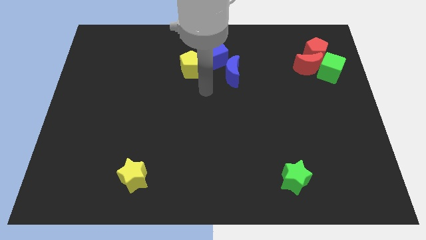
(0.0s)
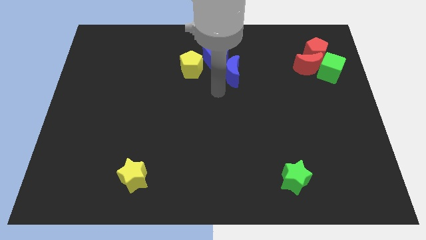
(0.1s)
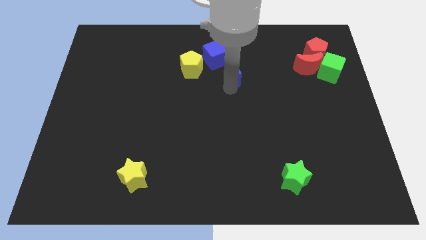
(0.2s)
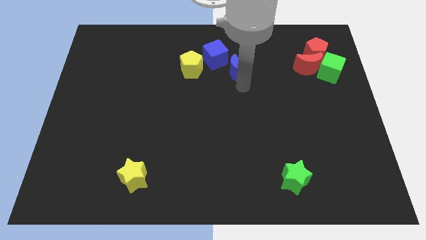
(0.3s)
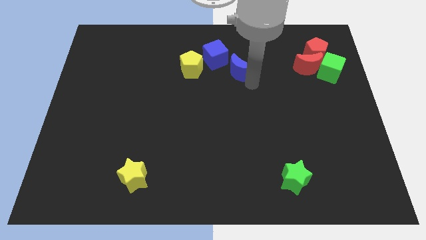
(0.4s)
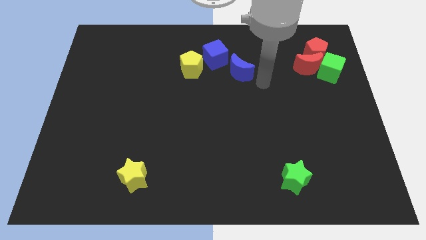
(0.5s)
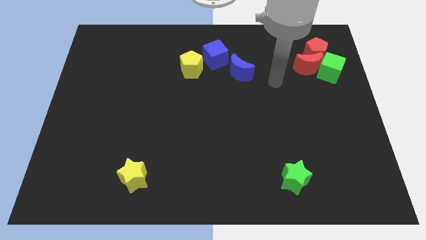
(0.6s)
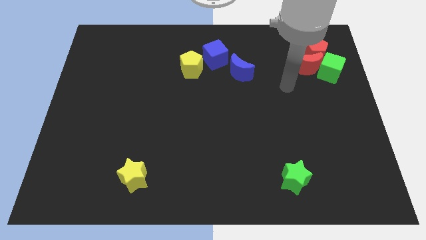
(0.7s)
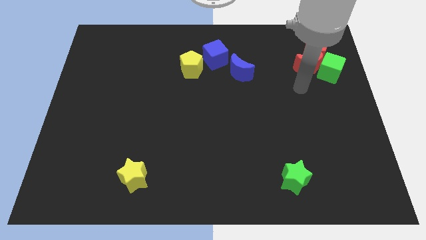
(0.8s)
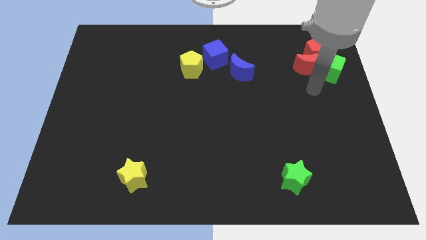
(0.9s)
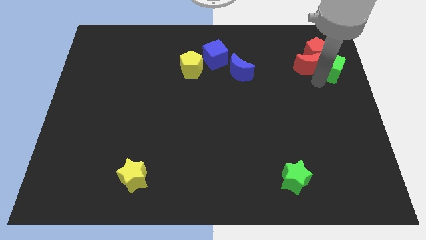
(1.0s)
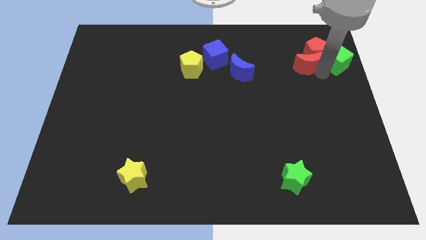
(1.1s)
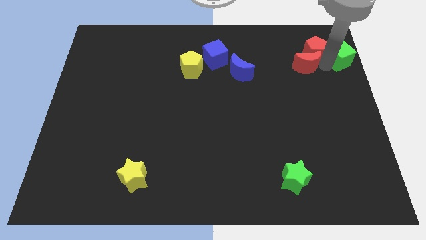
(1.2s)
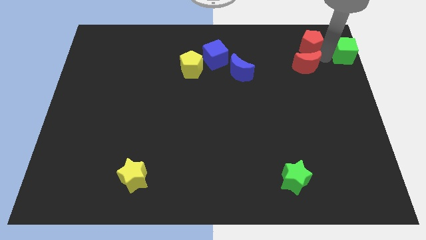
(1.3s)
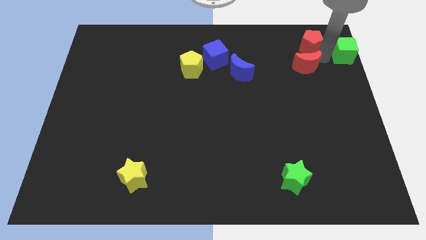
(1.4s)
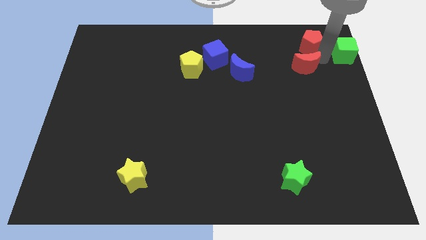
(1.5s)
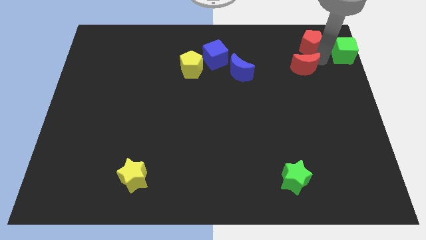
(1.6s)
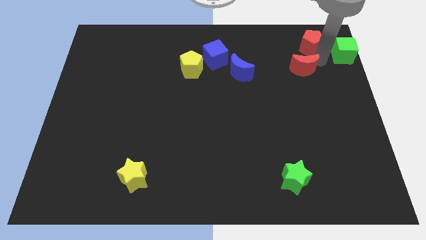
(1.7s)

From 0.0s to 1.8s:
pull the red moon apart from the red pentagon and green cube

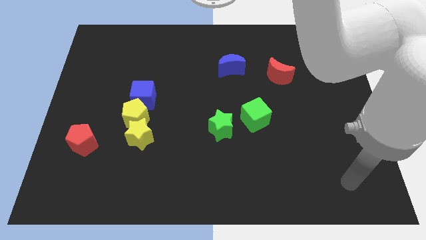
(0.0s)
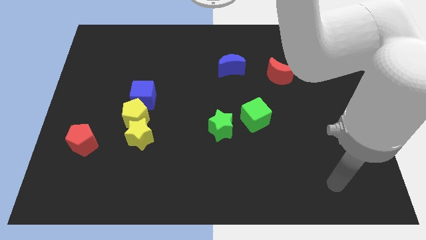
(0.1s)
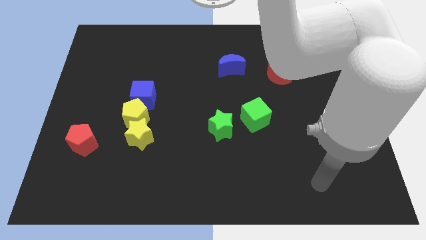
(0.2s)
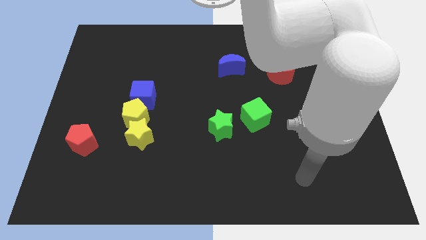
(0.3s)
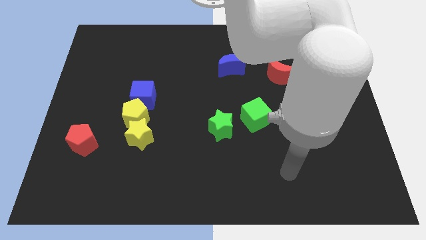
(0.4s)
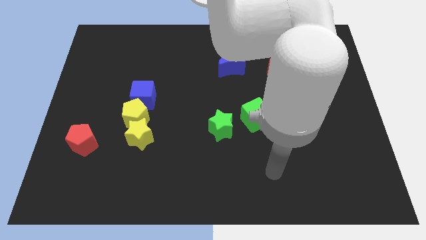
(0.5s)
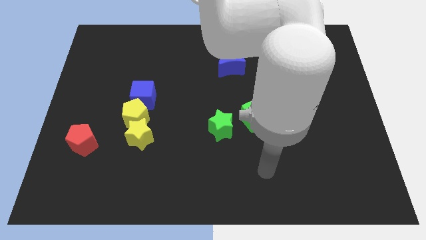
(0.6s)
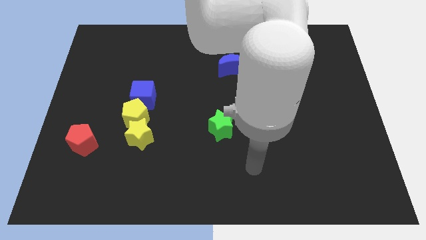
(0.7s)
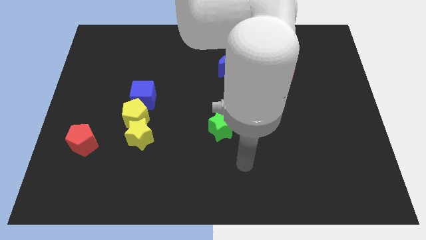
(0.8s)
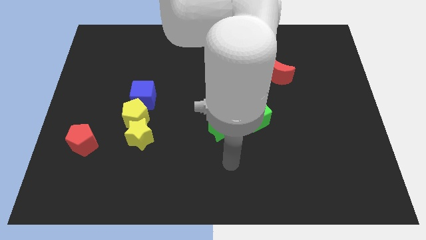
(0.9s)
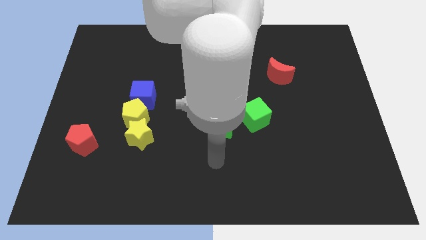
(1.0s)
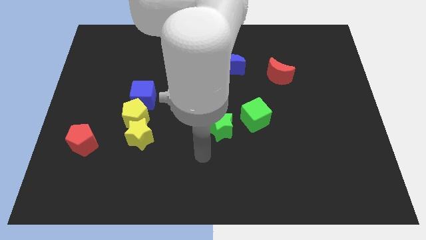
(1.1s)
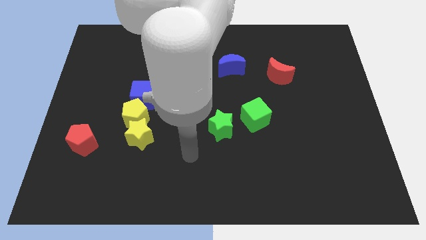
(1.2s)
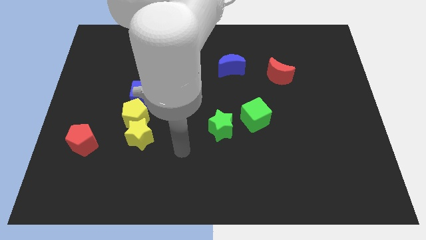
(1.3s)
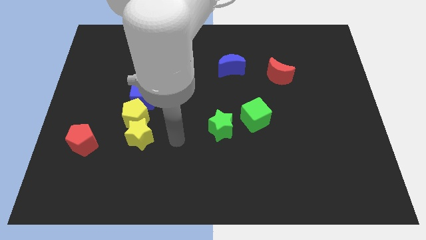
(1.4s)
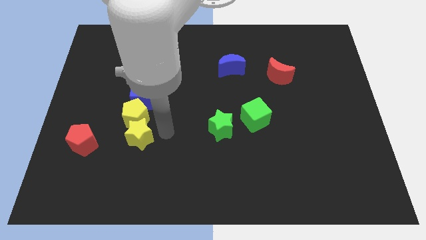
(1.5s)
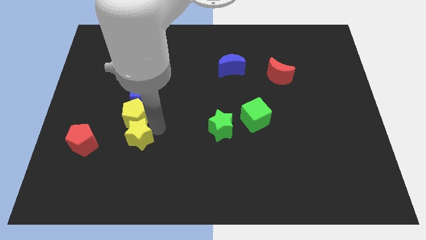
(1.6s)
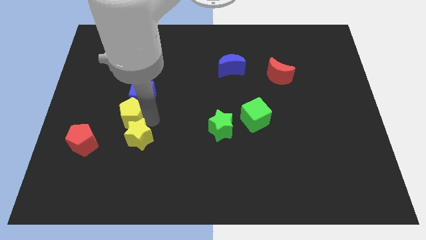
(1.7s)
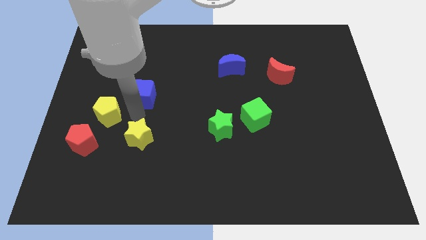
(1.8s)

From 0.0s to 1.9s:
separate the yellow star from the yellow pentagon

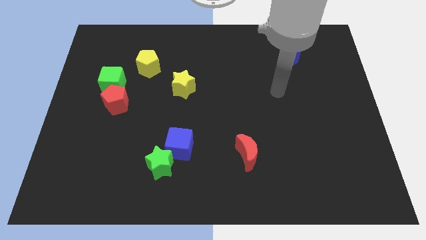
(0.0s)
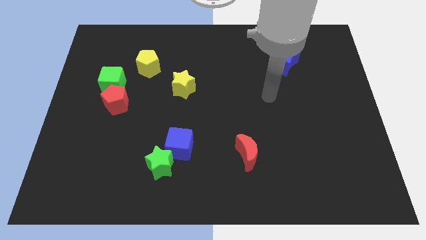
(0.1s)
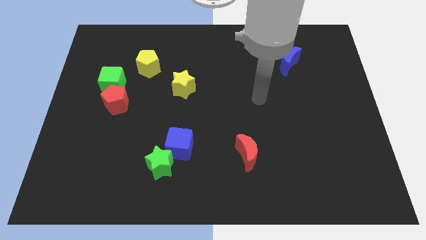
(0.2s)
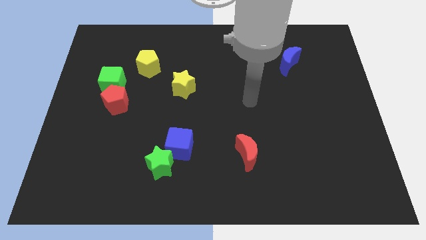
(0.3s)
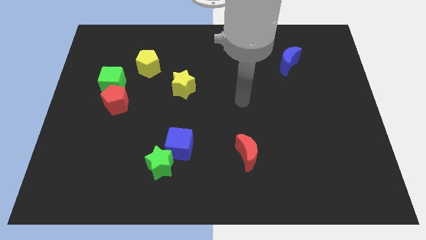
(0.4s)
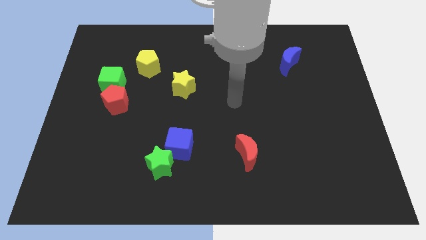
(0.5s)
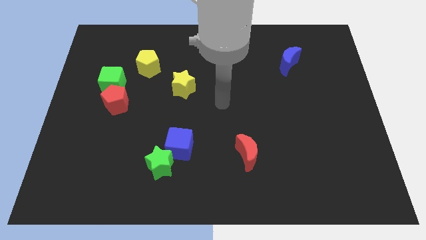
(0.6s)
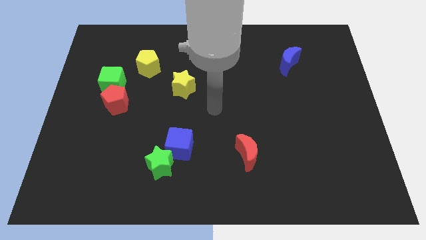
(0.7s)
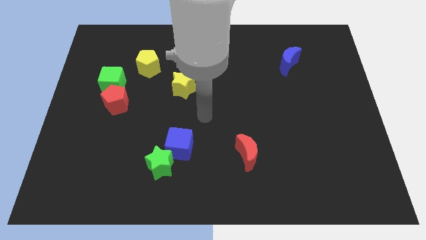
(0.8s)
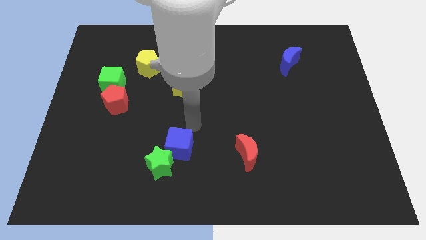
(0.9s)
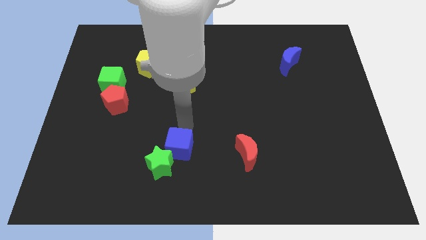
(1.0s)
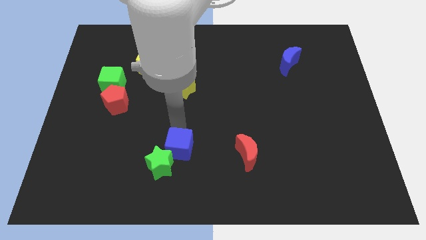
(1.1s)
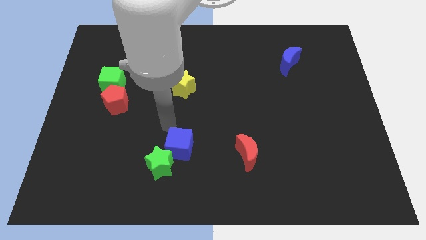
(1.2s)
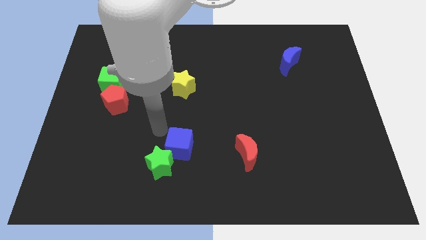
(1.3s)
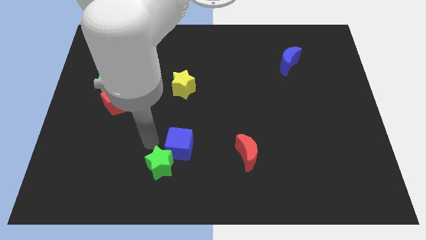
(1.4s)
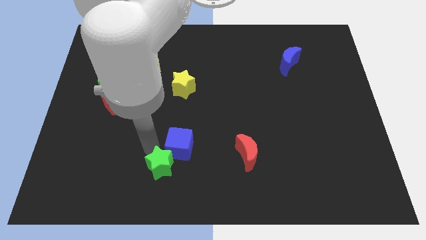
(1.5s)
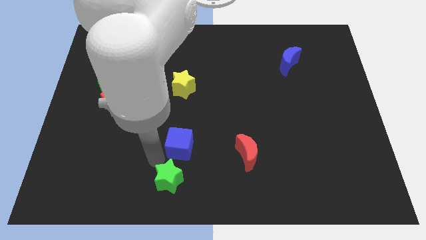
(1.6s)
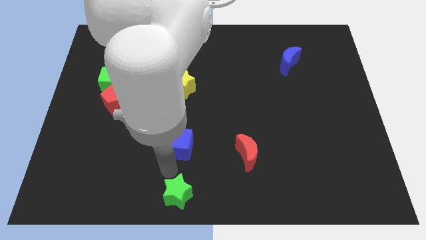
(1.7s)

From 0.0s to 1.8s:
move the blue cube away from the green star

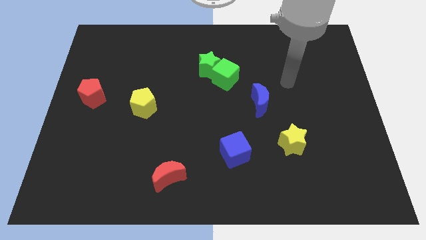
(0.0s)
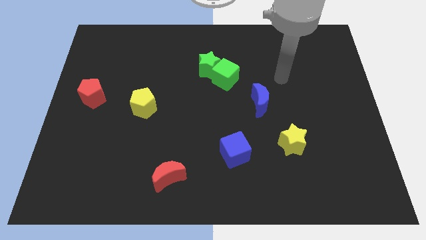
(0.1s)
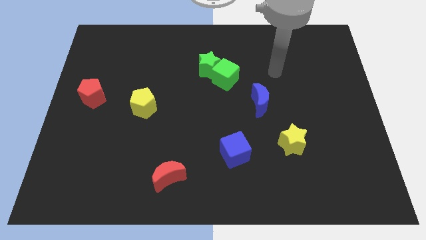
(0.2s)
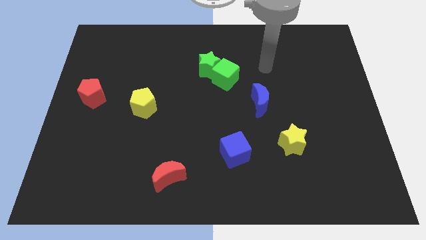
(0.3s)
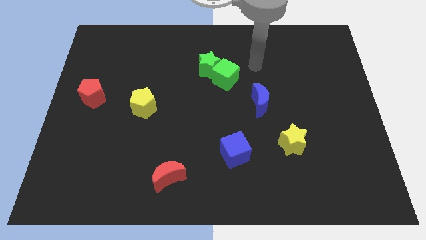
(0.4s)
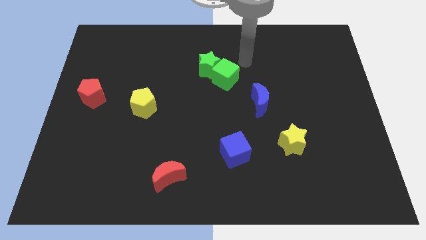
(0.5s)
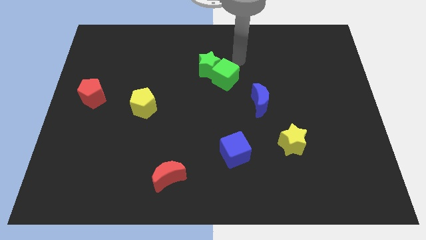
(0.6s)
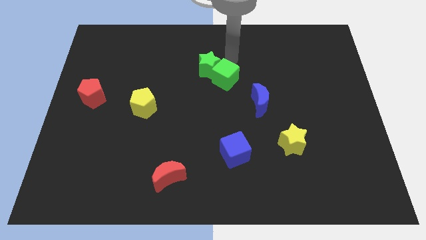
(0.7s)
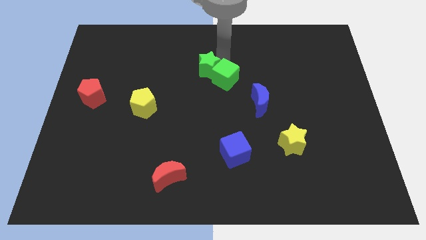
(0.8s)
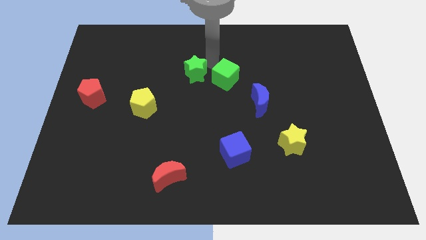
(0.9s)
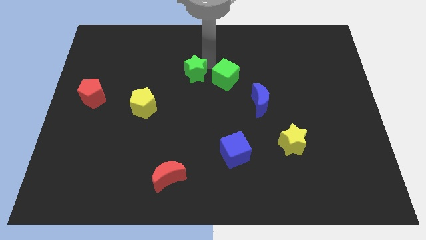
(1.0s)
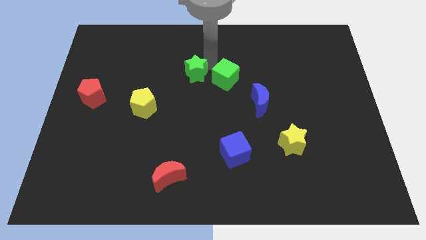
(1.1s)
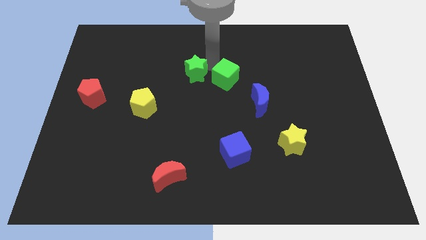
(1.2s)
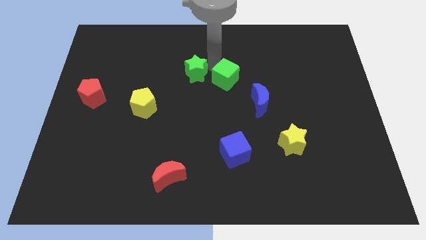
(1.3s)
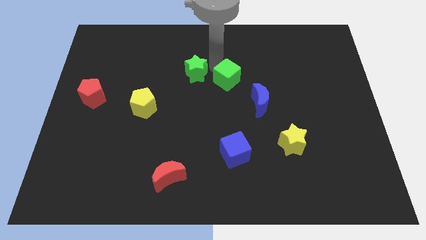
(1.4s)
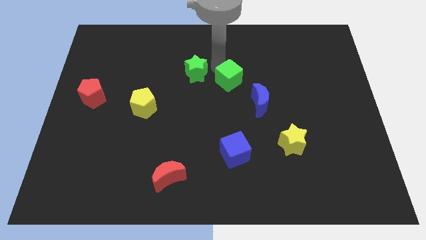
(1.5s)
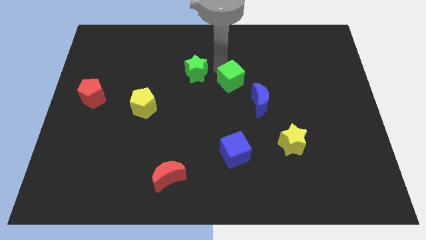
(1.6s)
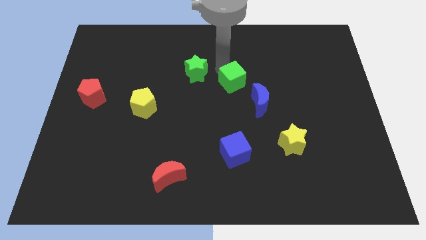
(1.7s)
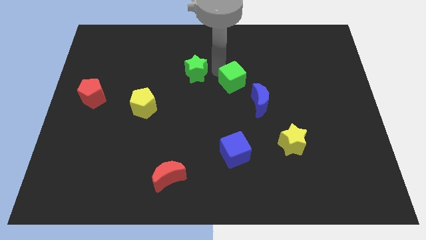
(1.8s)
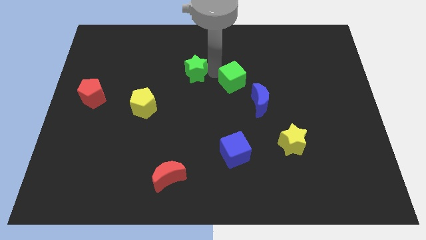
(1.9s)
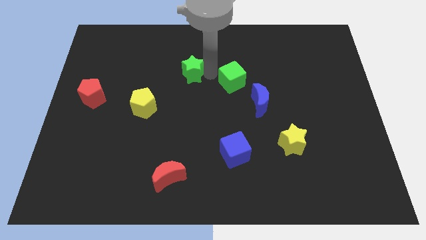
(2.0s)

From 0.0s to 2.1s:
move the green cube away from the green star

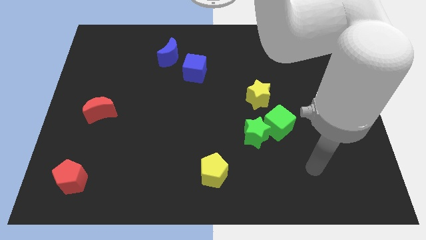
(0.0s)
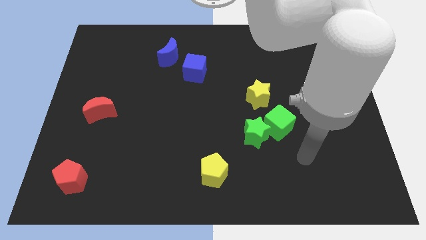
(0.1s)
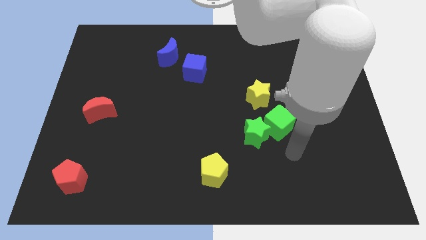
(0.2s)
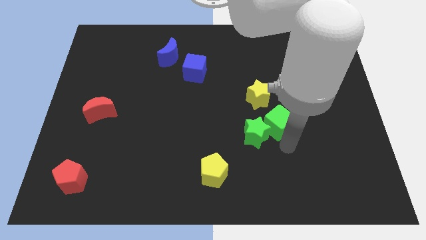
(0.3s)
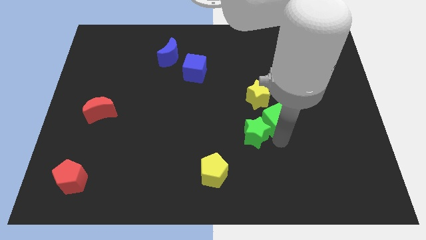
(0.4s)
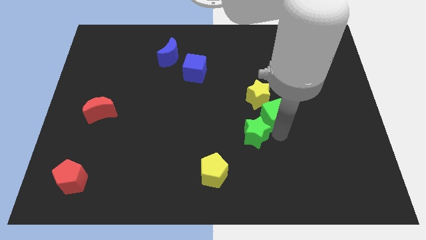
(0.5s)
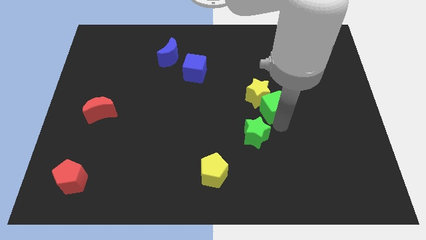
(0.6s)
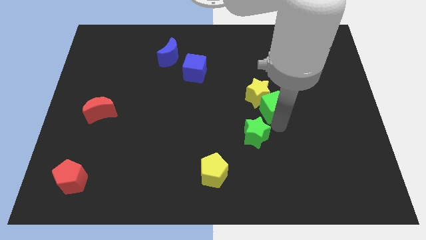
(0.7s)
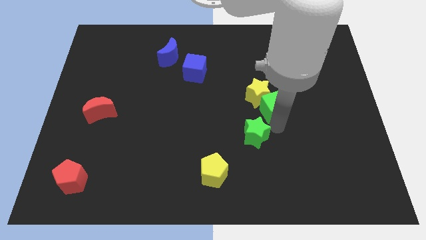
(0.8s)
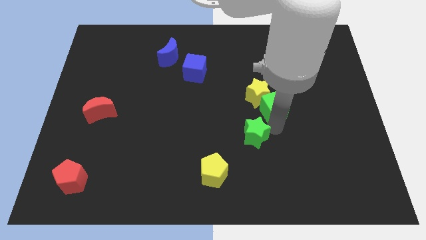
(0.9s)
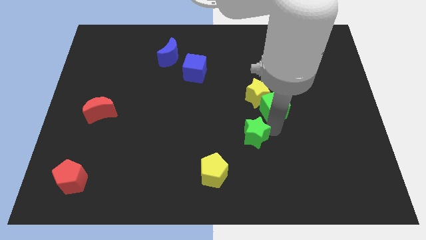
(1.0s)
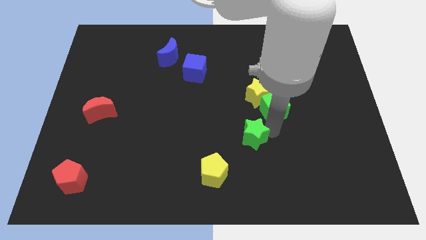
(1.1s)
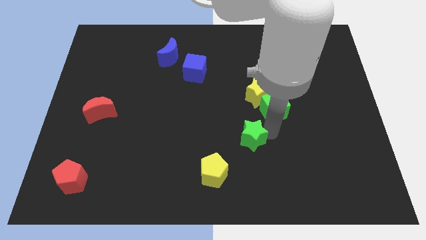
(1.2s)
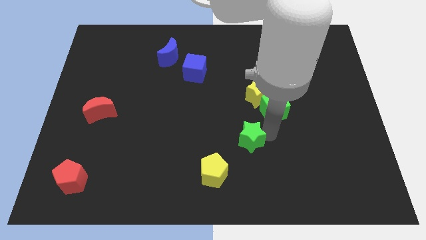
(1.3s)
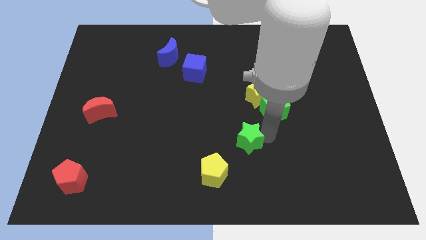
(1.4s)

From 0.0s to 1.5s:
separate the green star from the green cube
